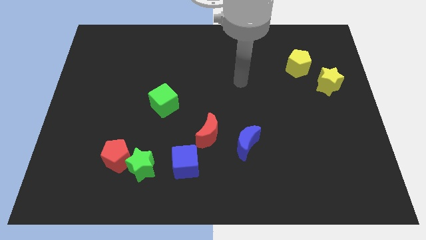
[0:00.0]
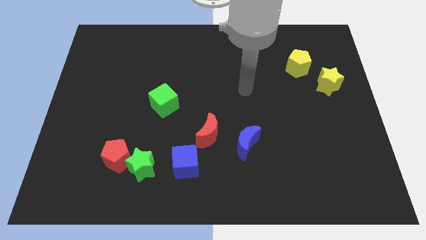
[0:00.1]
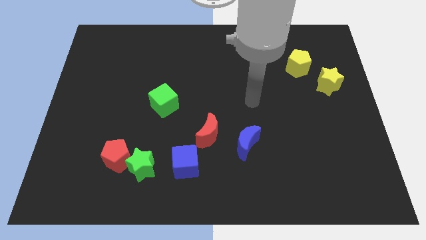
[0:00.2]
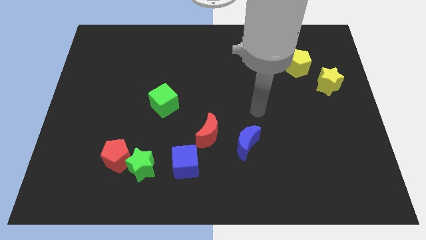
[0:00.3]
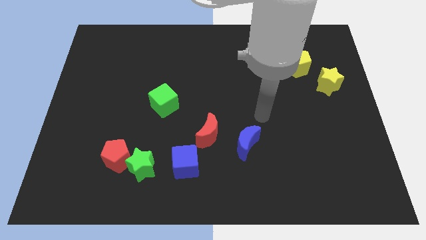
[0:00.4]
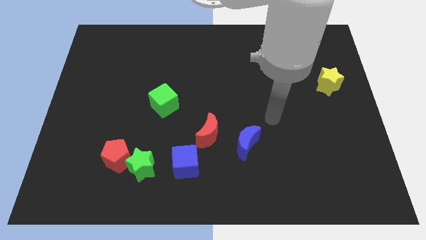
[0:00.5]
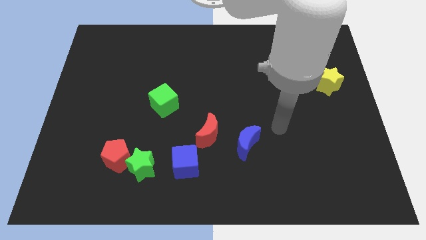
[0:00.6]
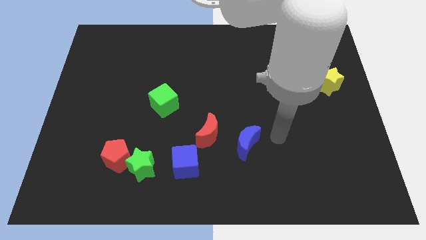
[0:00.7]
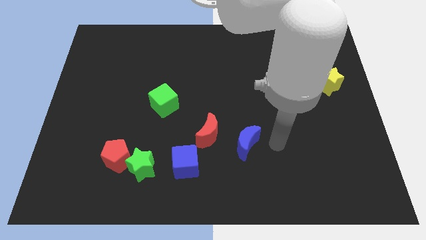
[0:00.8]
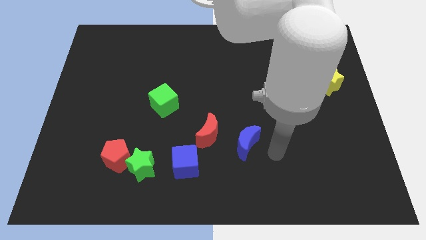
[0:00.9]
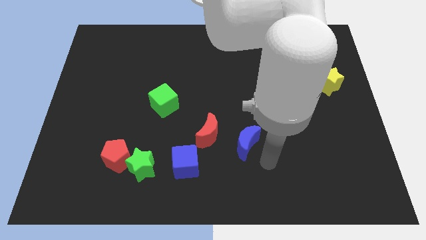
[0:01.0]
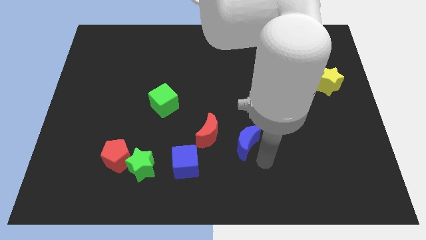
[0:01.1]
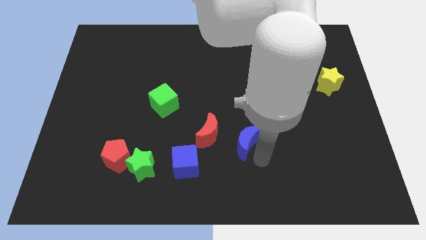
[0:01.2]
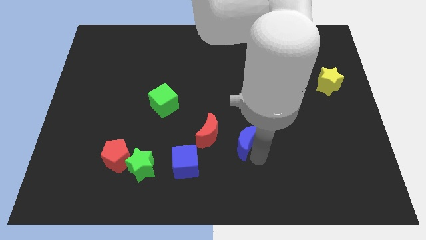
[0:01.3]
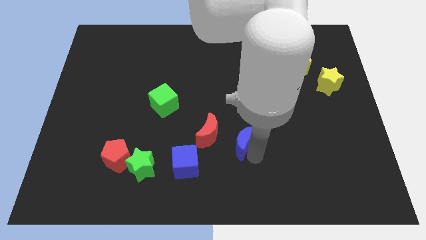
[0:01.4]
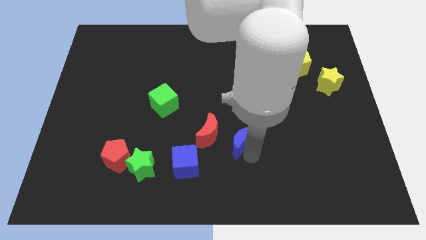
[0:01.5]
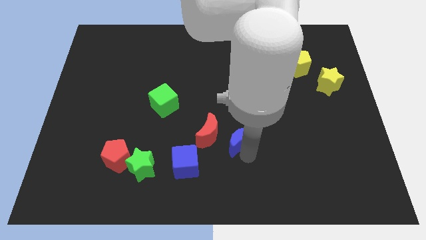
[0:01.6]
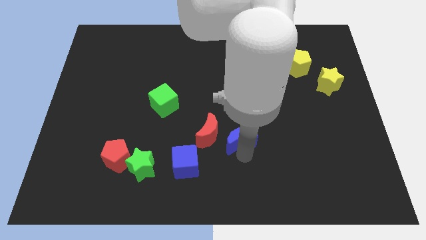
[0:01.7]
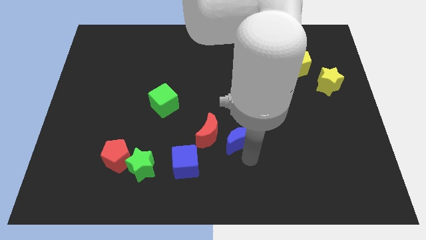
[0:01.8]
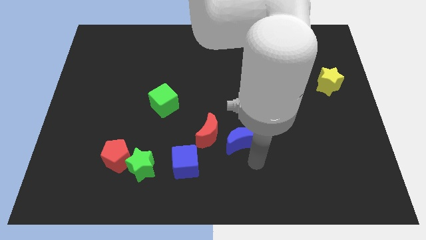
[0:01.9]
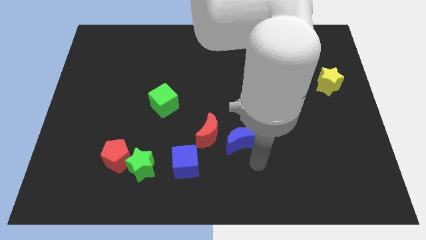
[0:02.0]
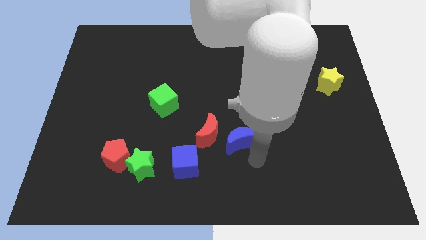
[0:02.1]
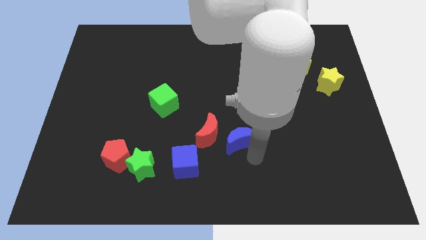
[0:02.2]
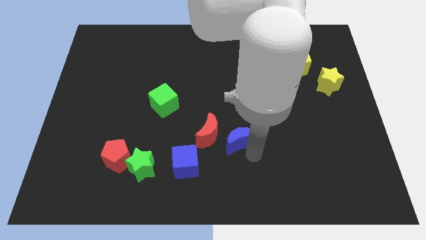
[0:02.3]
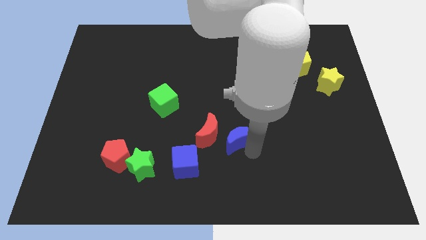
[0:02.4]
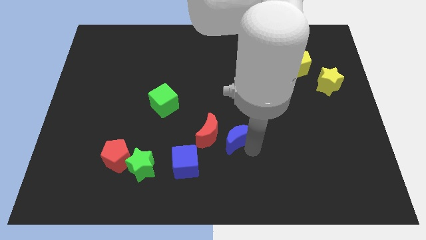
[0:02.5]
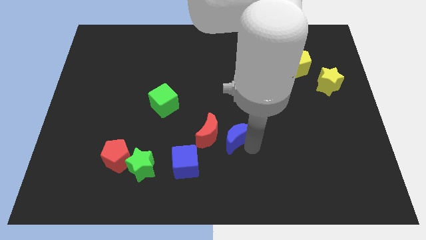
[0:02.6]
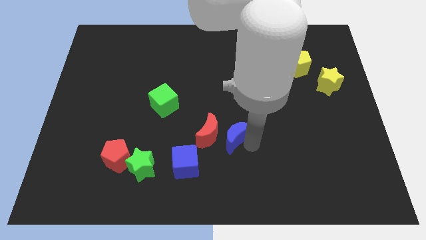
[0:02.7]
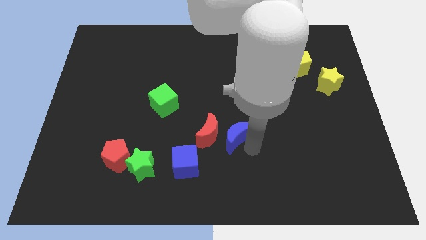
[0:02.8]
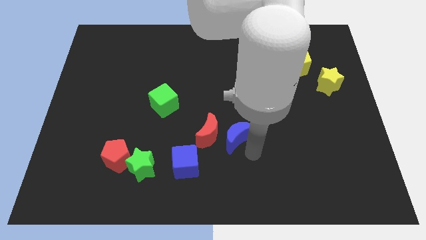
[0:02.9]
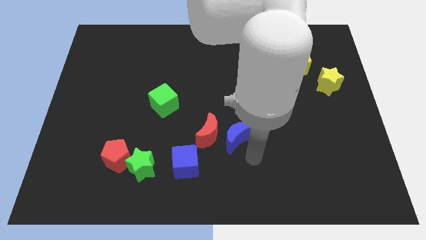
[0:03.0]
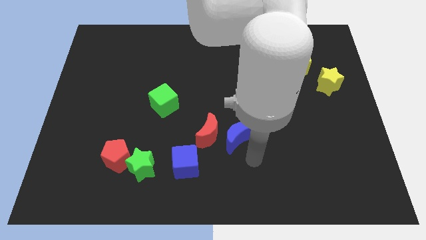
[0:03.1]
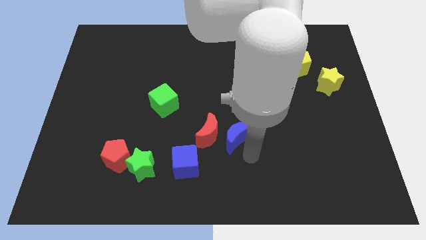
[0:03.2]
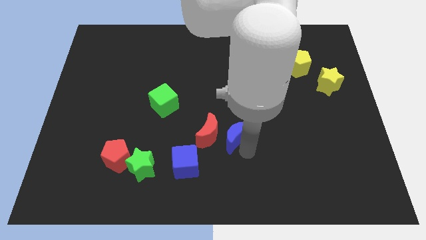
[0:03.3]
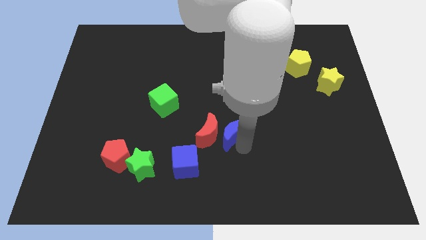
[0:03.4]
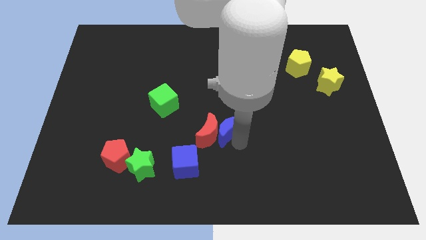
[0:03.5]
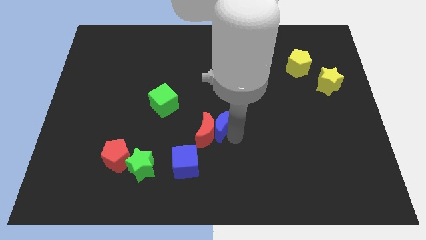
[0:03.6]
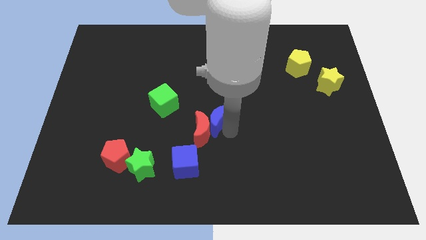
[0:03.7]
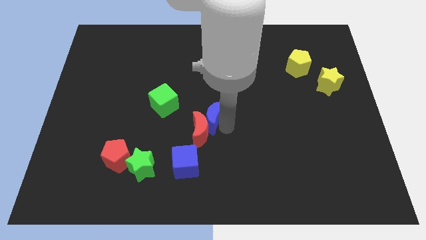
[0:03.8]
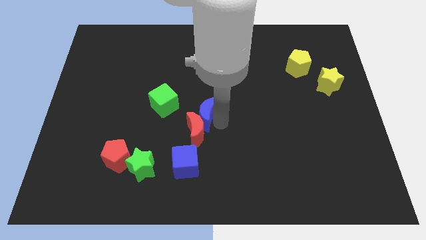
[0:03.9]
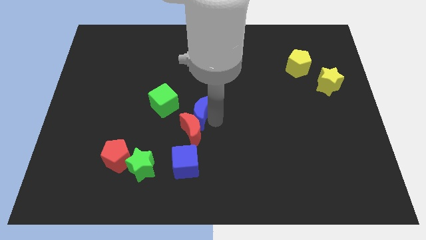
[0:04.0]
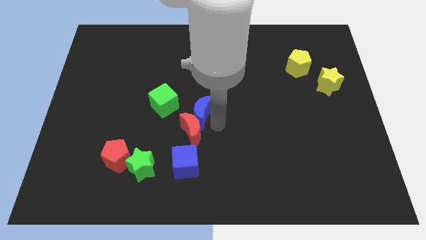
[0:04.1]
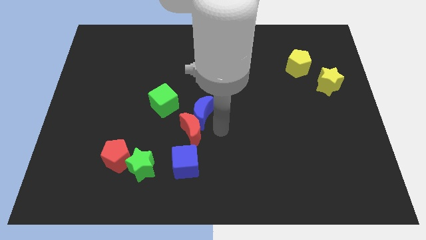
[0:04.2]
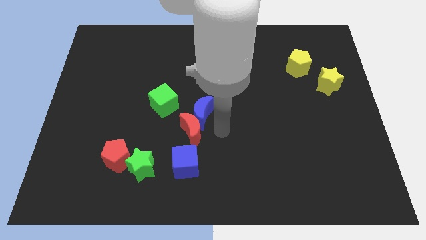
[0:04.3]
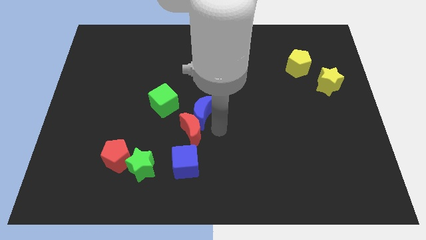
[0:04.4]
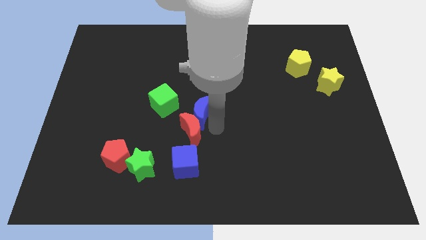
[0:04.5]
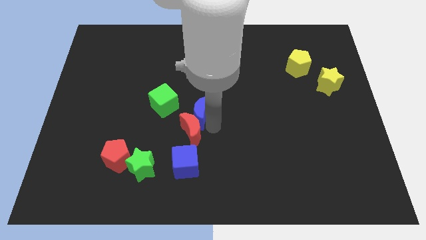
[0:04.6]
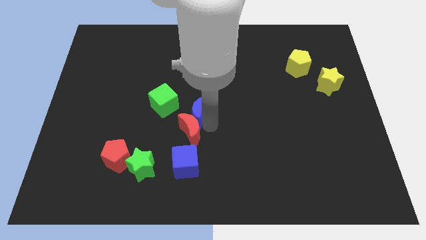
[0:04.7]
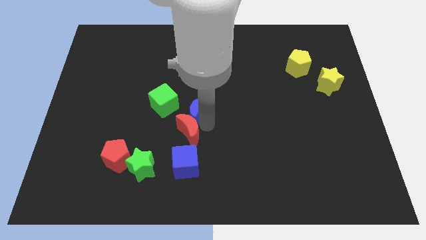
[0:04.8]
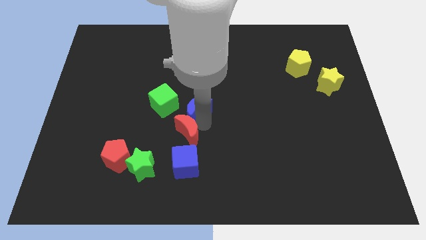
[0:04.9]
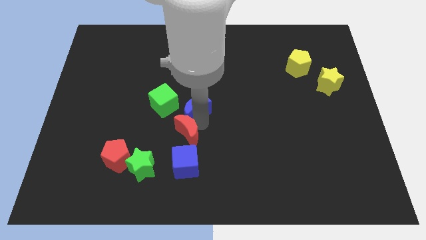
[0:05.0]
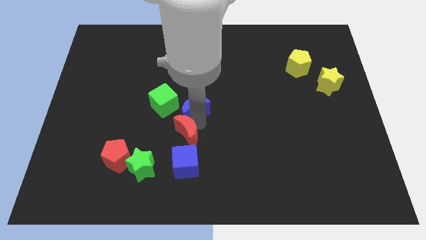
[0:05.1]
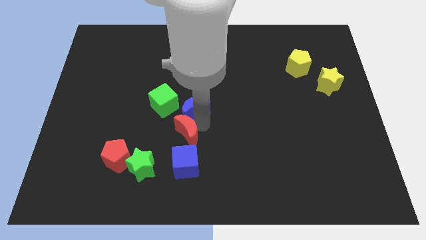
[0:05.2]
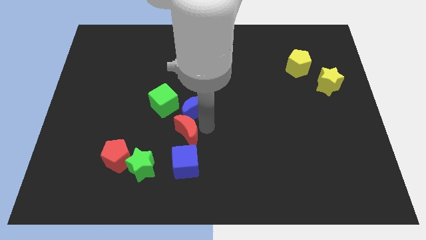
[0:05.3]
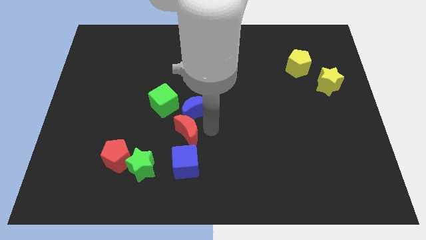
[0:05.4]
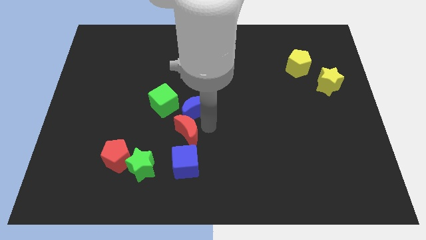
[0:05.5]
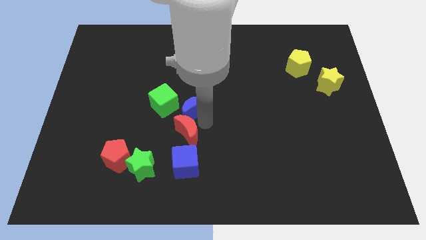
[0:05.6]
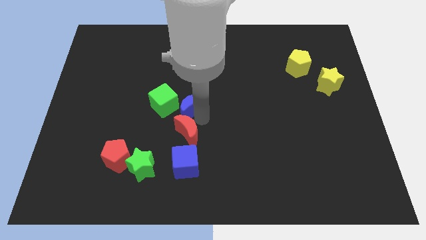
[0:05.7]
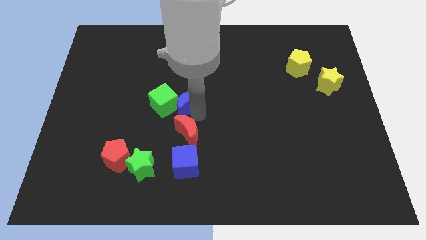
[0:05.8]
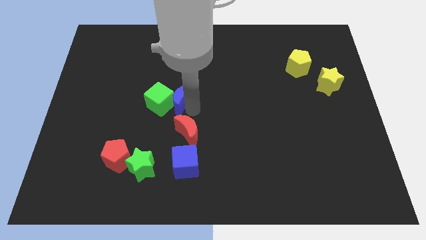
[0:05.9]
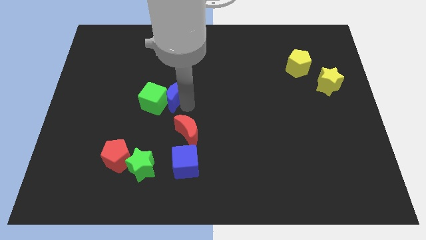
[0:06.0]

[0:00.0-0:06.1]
move the blue moon up and to the left diagonally

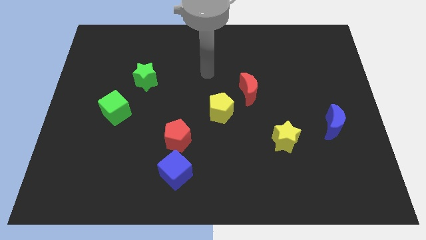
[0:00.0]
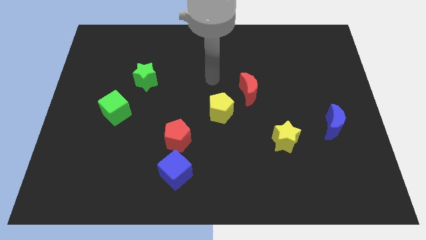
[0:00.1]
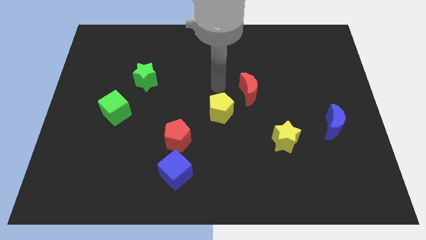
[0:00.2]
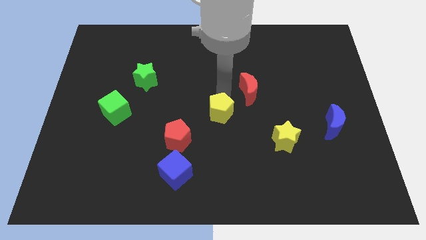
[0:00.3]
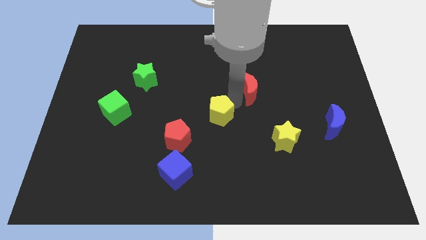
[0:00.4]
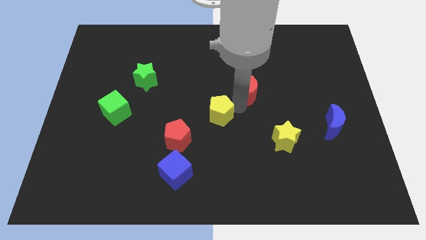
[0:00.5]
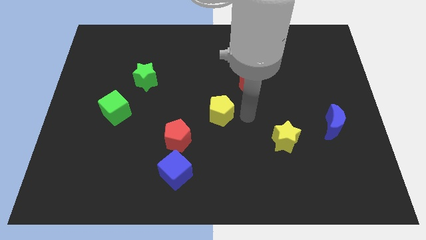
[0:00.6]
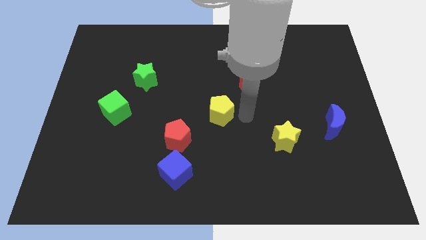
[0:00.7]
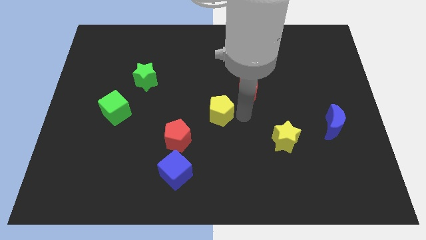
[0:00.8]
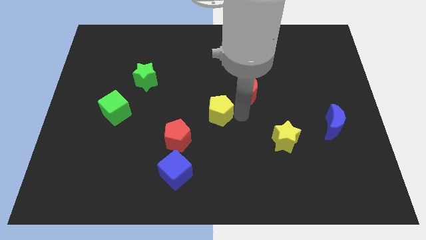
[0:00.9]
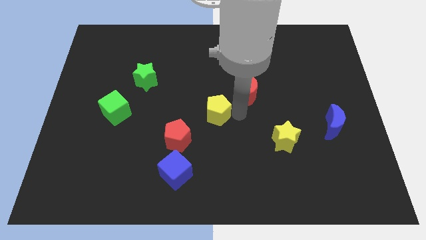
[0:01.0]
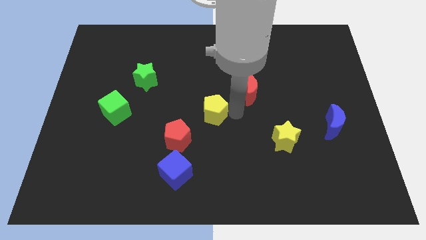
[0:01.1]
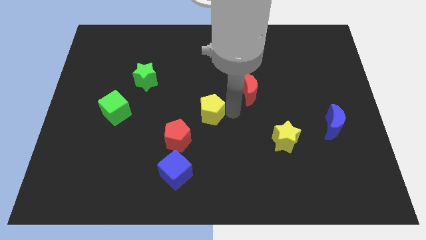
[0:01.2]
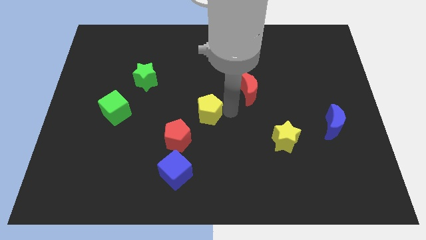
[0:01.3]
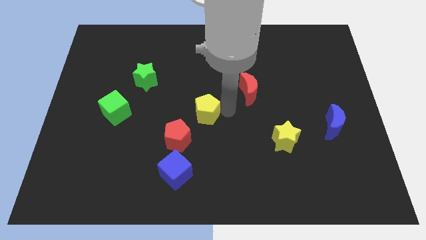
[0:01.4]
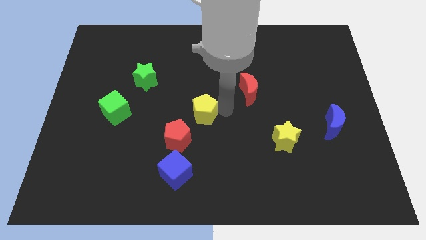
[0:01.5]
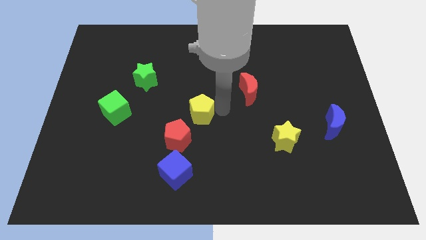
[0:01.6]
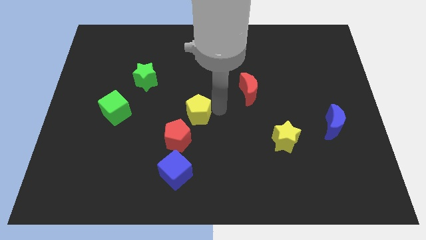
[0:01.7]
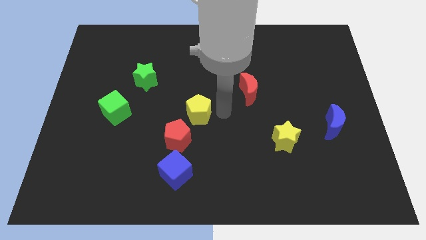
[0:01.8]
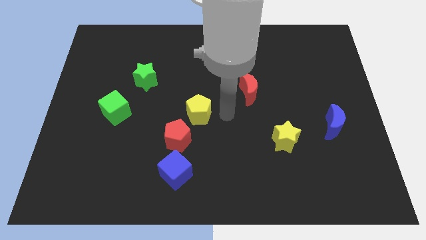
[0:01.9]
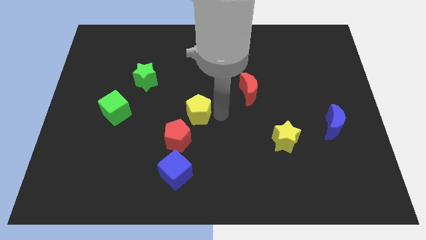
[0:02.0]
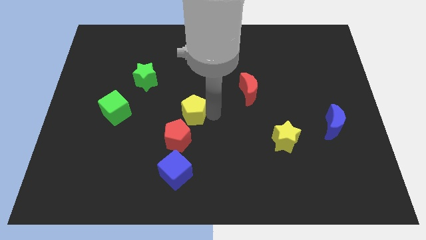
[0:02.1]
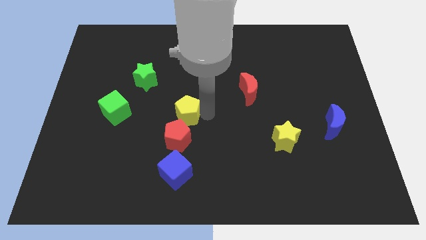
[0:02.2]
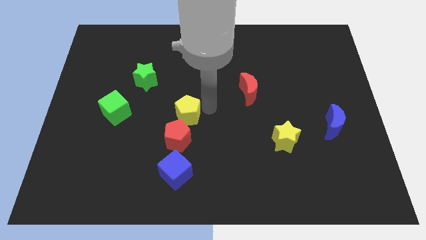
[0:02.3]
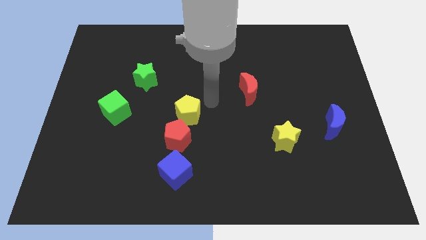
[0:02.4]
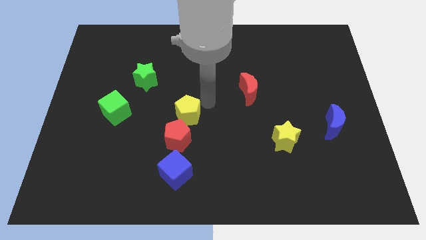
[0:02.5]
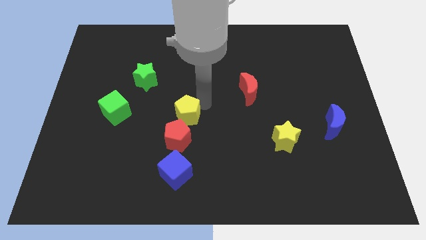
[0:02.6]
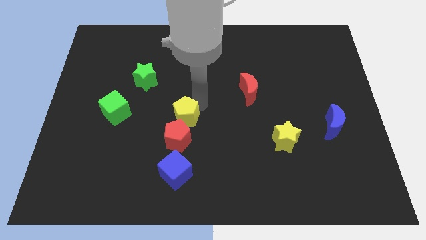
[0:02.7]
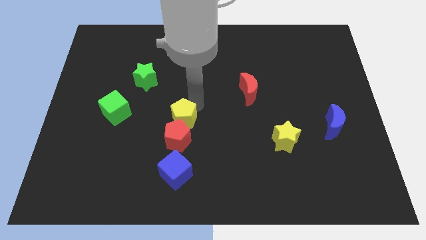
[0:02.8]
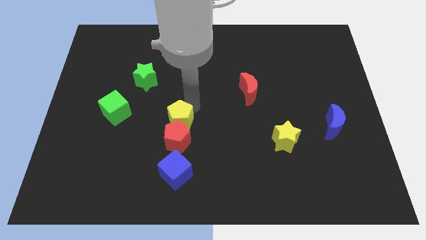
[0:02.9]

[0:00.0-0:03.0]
slide the yellow pentagon down and then left a little bit
